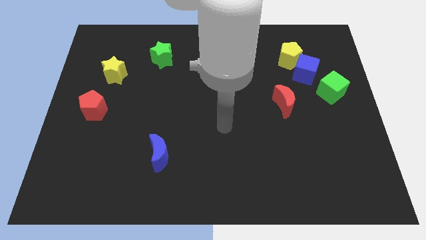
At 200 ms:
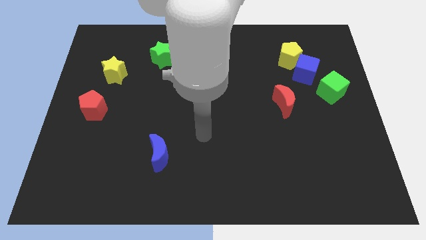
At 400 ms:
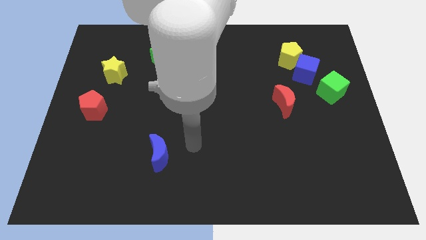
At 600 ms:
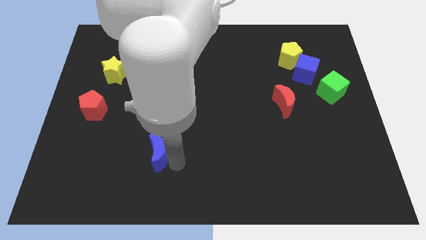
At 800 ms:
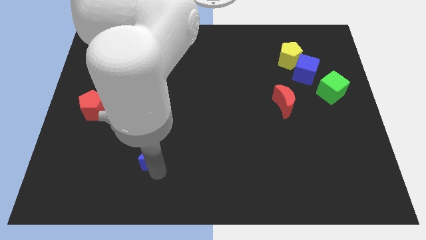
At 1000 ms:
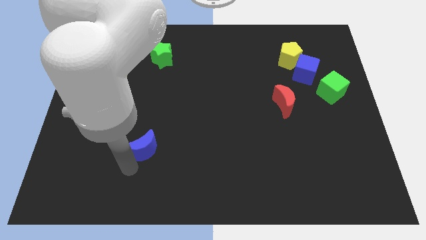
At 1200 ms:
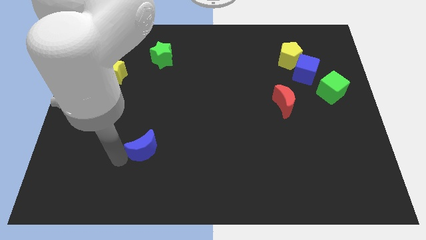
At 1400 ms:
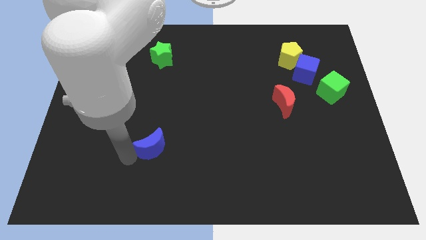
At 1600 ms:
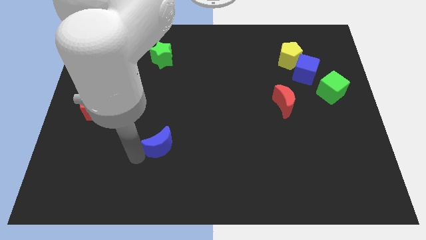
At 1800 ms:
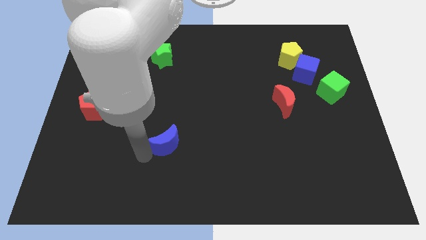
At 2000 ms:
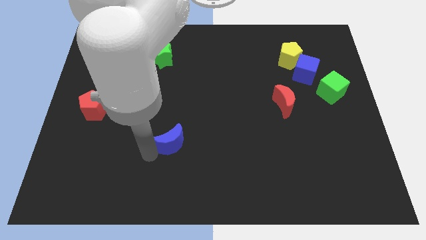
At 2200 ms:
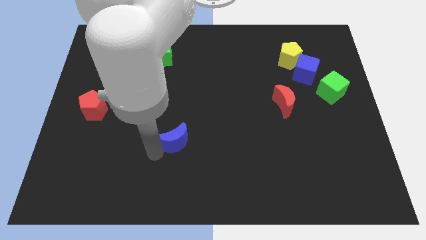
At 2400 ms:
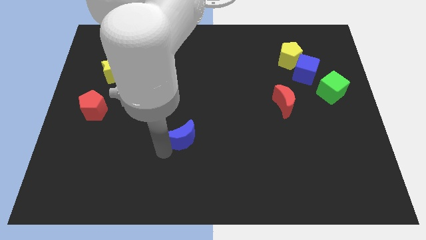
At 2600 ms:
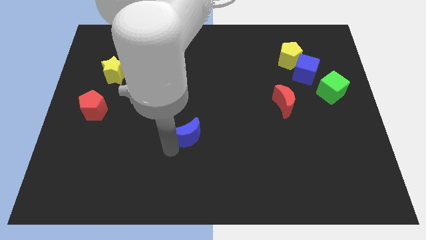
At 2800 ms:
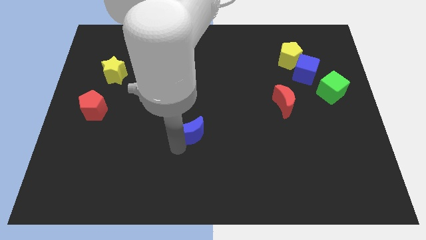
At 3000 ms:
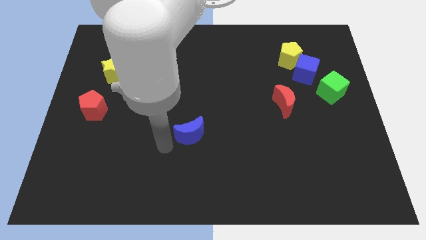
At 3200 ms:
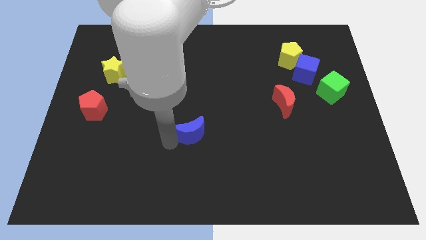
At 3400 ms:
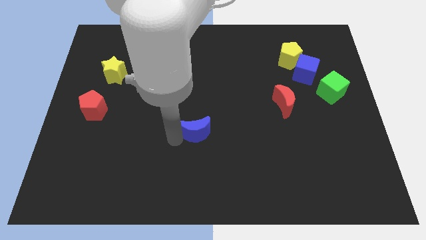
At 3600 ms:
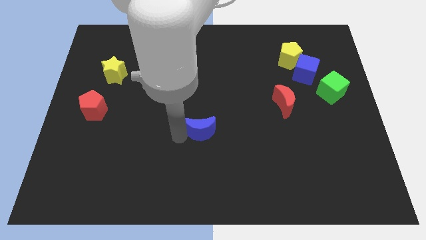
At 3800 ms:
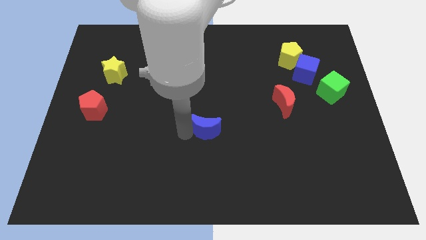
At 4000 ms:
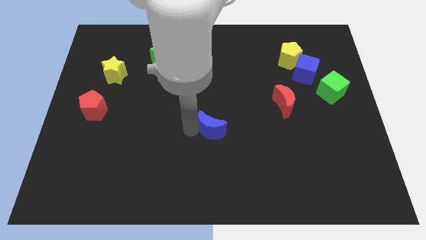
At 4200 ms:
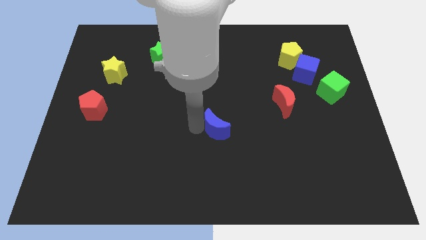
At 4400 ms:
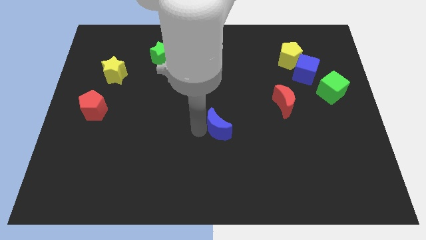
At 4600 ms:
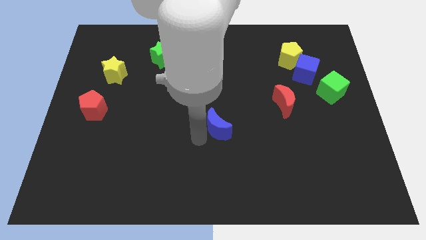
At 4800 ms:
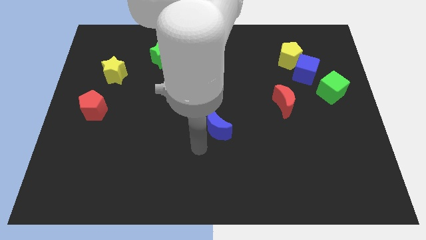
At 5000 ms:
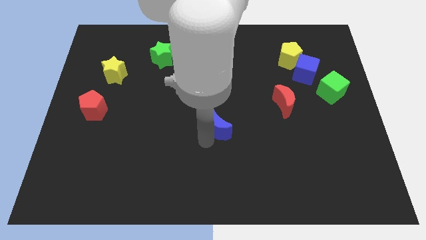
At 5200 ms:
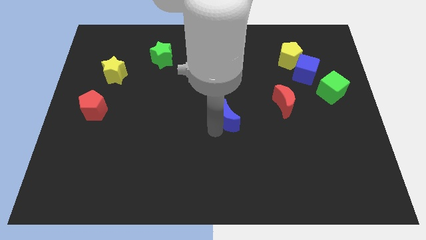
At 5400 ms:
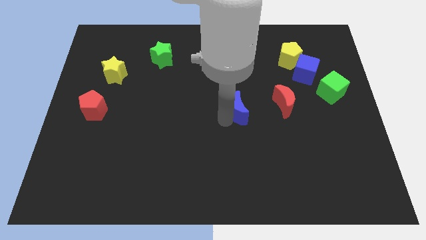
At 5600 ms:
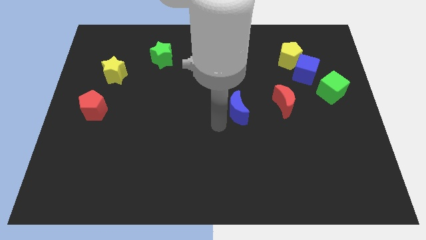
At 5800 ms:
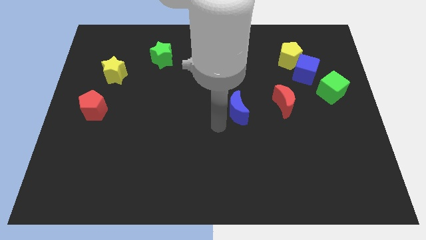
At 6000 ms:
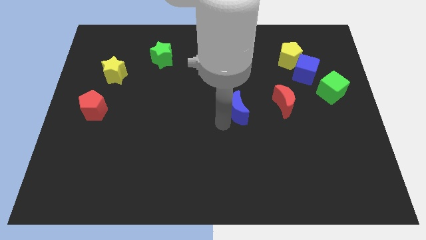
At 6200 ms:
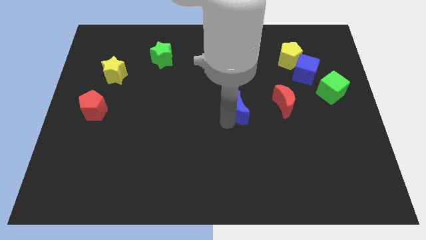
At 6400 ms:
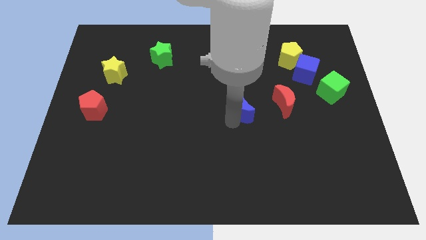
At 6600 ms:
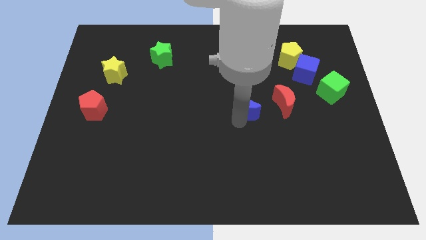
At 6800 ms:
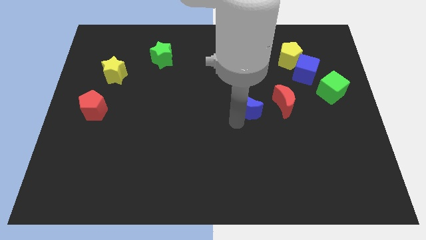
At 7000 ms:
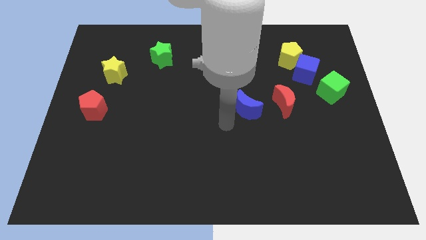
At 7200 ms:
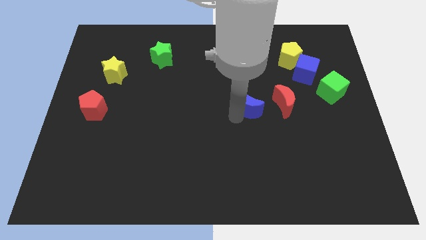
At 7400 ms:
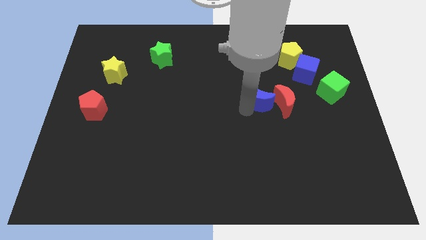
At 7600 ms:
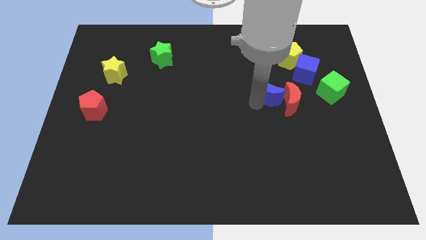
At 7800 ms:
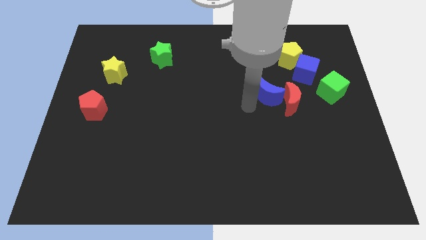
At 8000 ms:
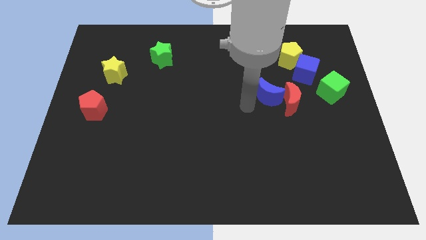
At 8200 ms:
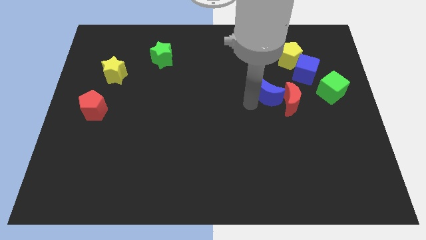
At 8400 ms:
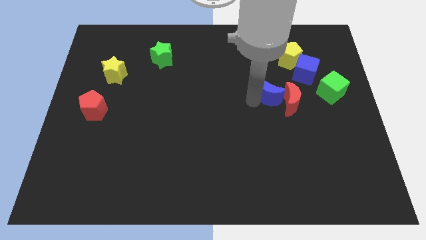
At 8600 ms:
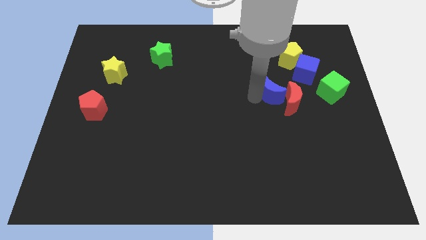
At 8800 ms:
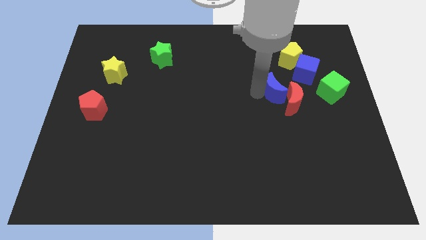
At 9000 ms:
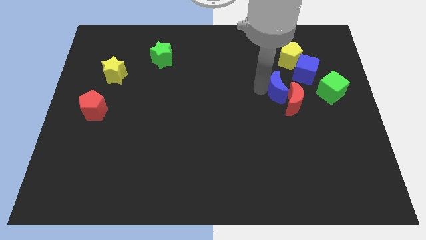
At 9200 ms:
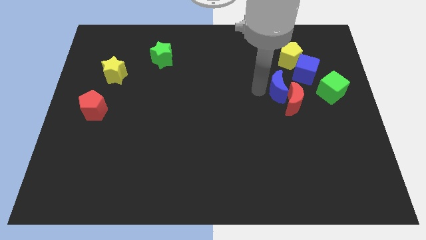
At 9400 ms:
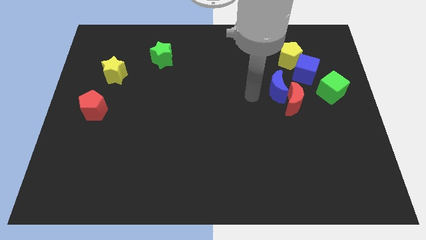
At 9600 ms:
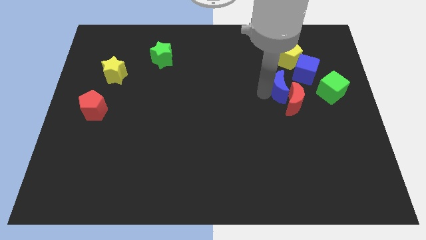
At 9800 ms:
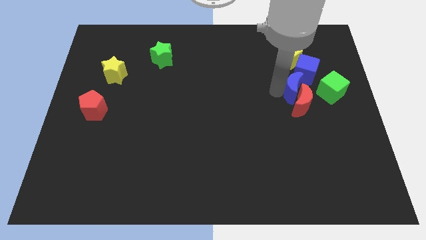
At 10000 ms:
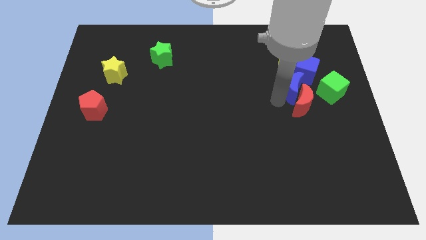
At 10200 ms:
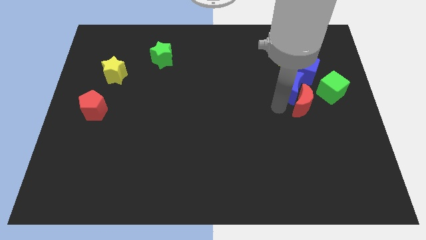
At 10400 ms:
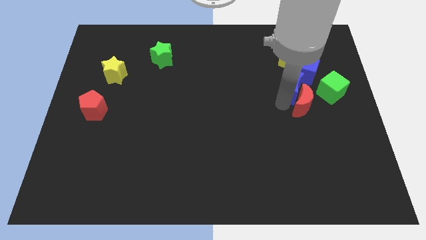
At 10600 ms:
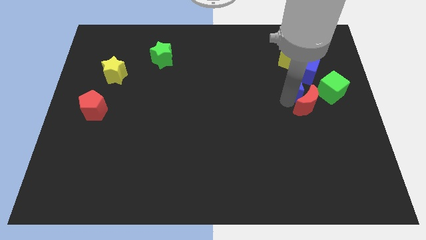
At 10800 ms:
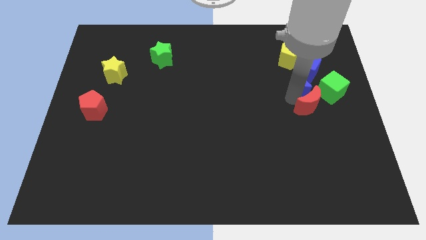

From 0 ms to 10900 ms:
move the blue moon to the blue cube

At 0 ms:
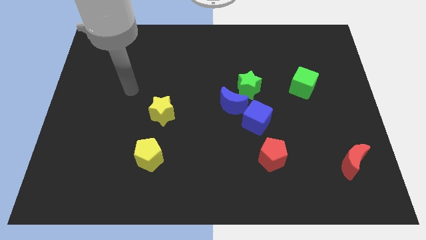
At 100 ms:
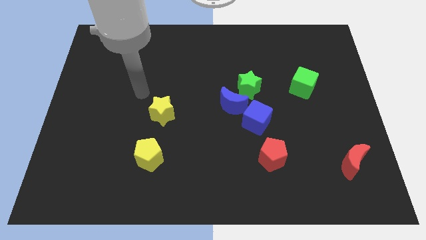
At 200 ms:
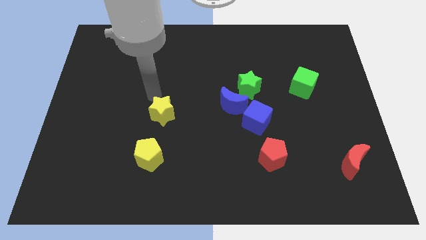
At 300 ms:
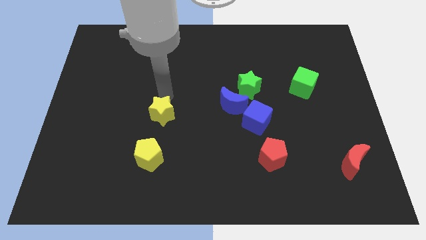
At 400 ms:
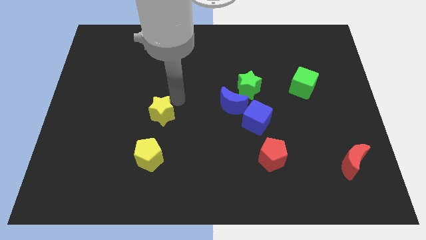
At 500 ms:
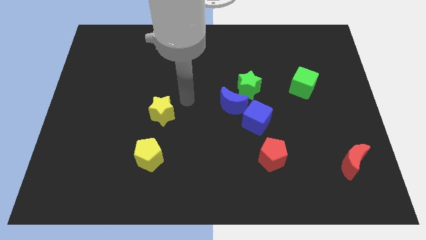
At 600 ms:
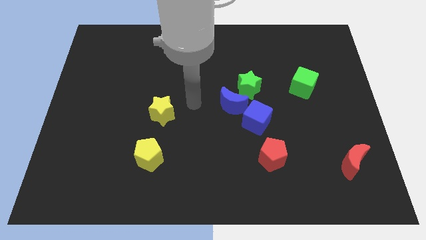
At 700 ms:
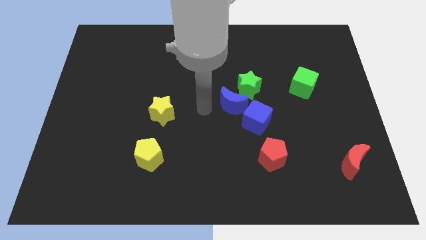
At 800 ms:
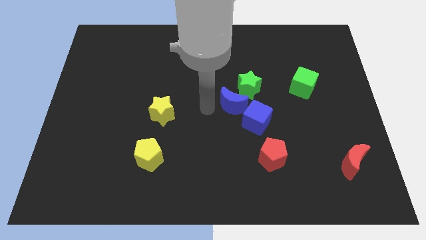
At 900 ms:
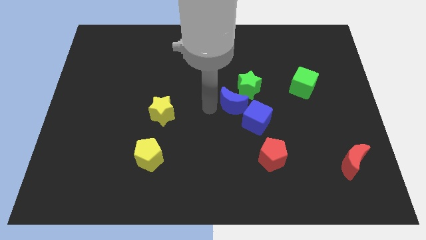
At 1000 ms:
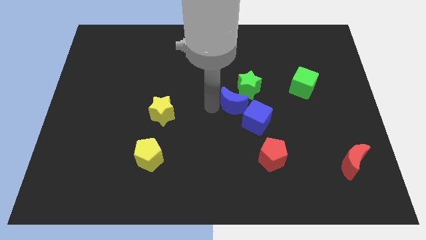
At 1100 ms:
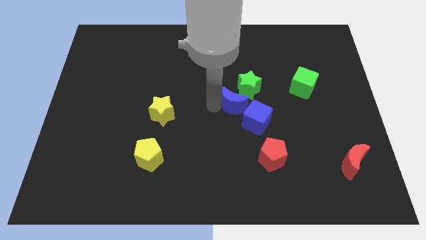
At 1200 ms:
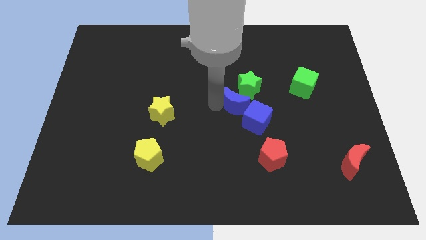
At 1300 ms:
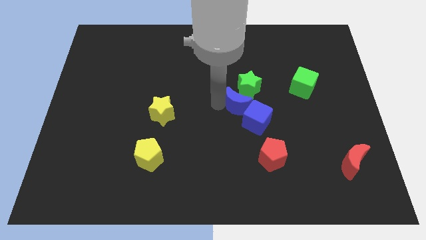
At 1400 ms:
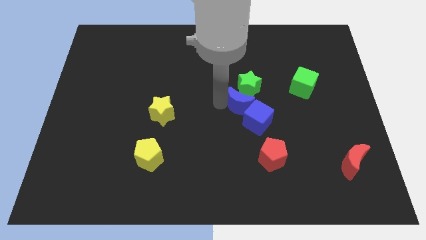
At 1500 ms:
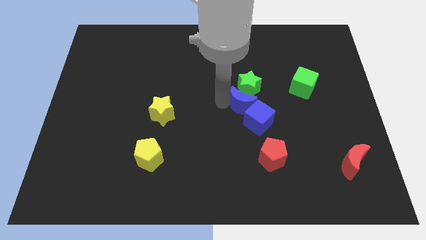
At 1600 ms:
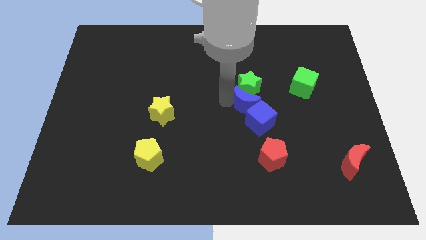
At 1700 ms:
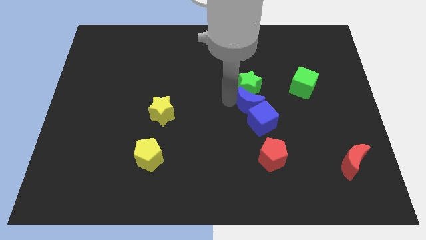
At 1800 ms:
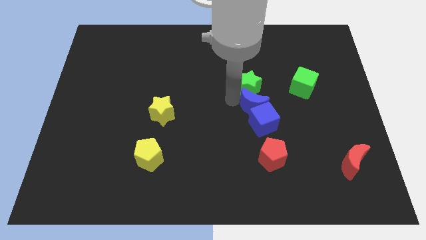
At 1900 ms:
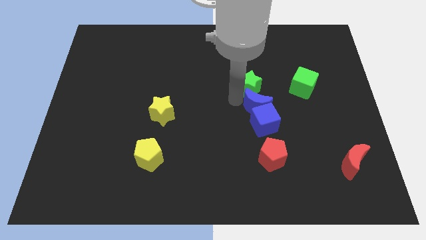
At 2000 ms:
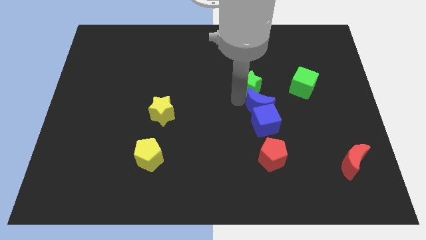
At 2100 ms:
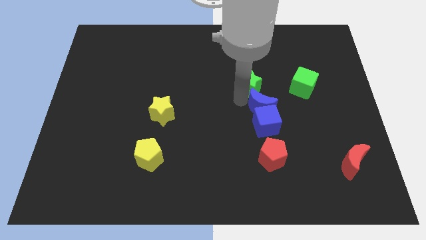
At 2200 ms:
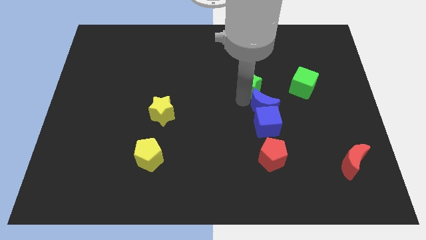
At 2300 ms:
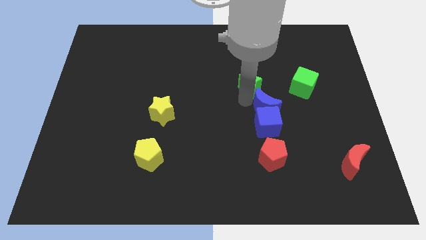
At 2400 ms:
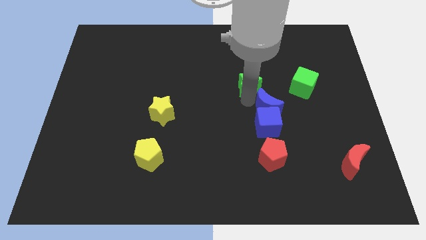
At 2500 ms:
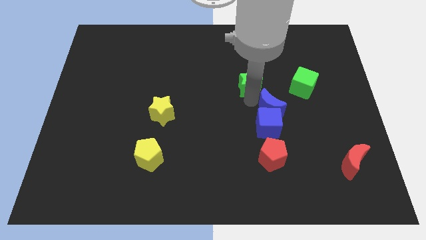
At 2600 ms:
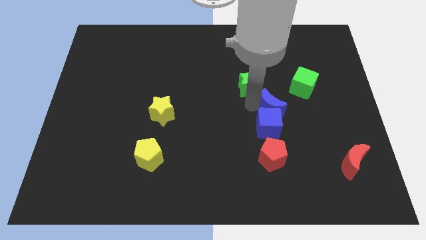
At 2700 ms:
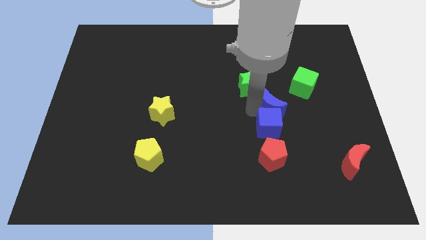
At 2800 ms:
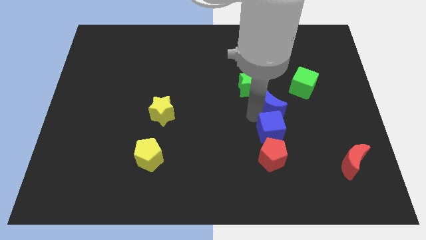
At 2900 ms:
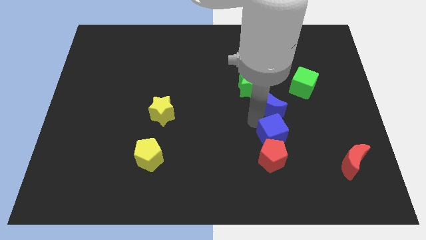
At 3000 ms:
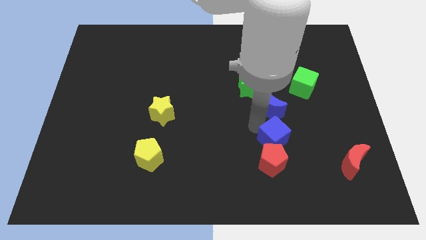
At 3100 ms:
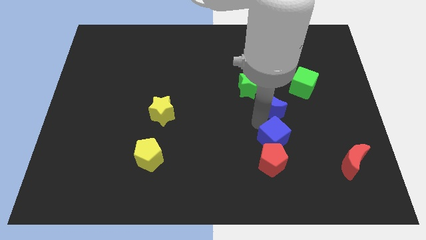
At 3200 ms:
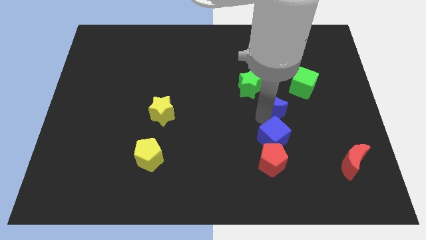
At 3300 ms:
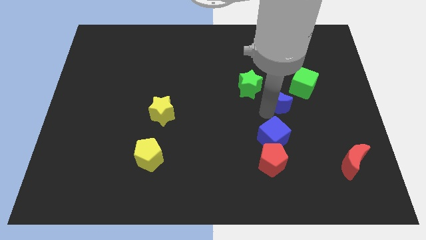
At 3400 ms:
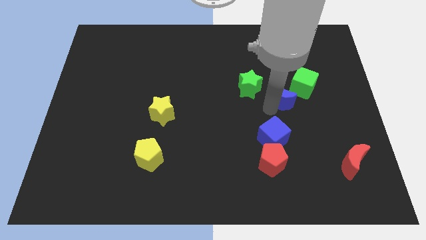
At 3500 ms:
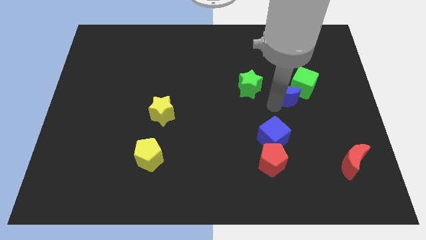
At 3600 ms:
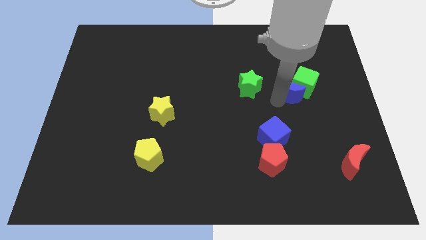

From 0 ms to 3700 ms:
move the blue moon towards the green cube
